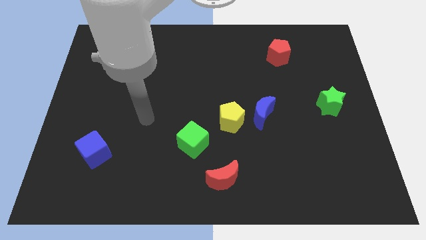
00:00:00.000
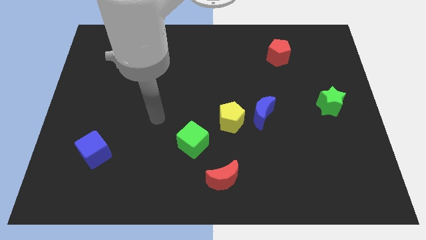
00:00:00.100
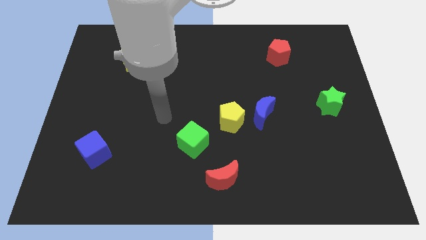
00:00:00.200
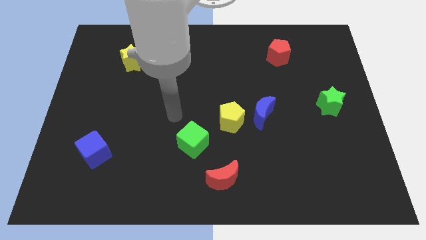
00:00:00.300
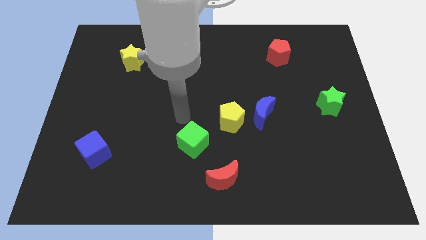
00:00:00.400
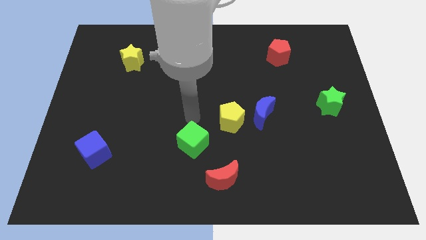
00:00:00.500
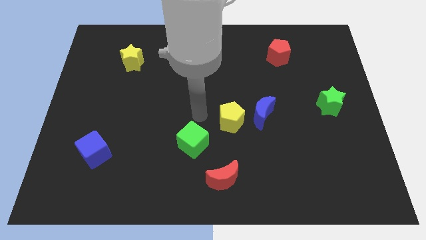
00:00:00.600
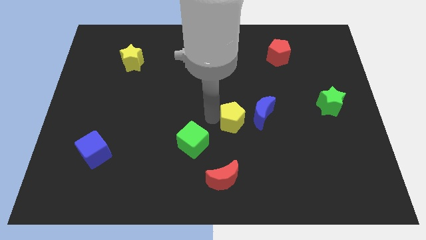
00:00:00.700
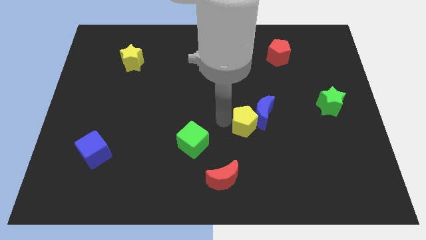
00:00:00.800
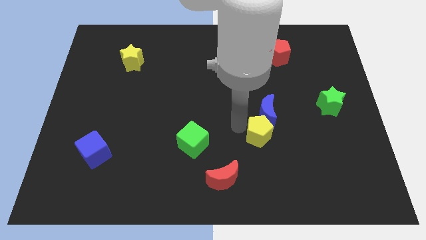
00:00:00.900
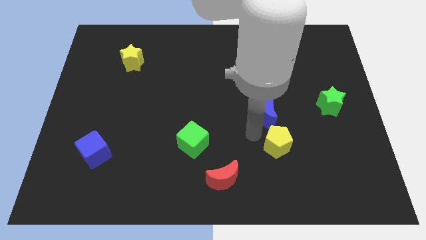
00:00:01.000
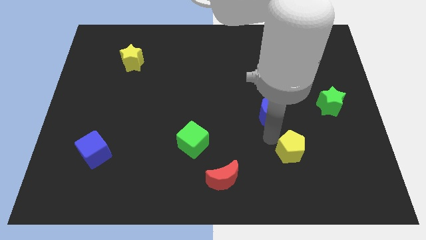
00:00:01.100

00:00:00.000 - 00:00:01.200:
move the blue moon away from the yellow pentagon

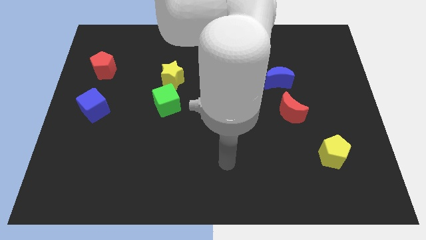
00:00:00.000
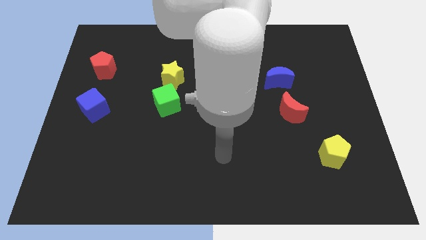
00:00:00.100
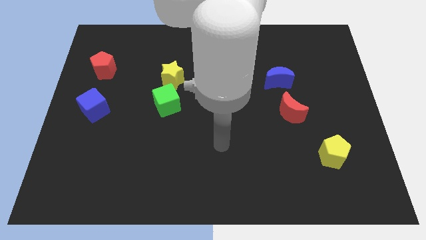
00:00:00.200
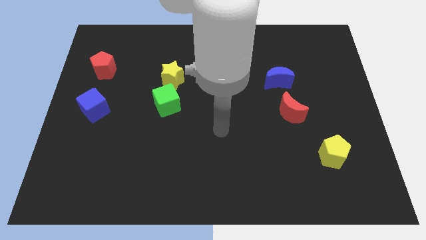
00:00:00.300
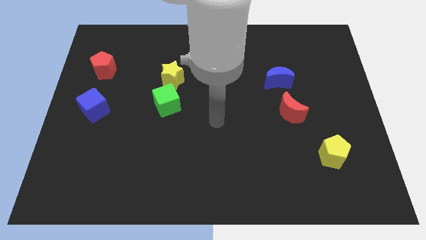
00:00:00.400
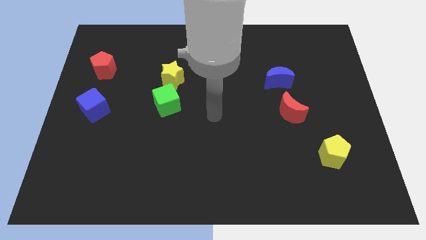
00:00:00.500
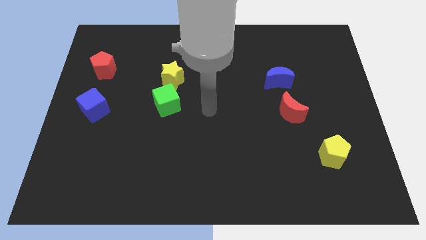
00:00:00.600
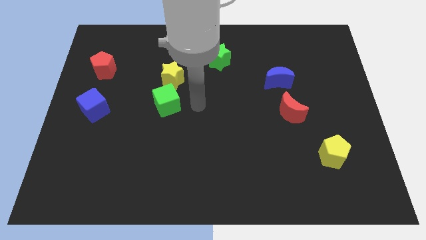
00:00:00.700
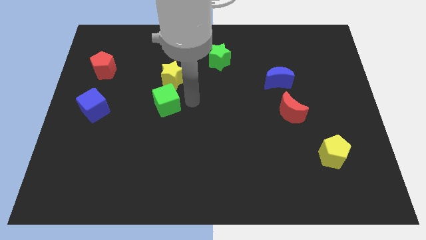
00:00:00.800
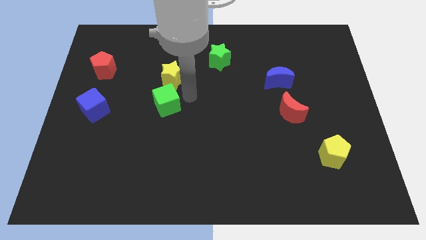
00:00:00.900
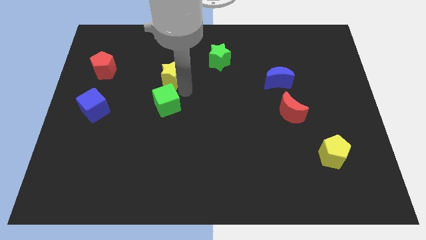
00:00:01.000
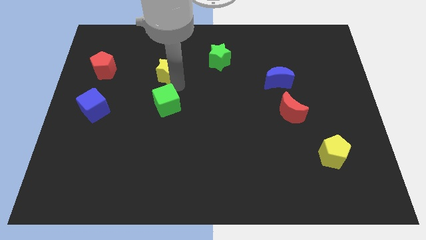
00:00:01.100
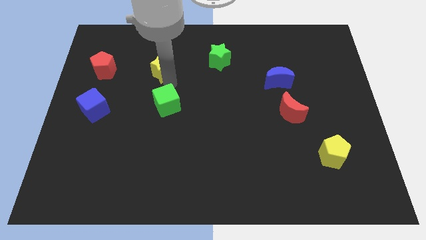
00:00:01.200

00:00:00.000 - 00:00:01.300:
pull the green cube apart from the yellow star

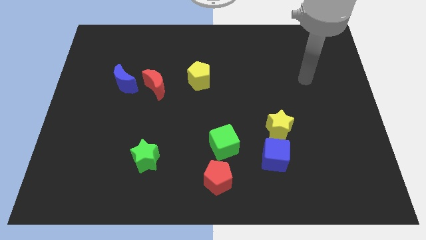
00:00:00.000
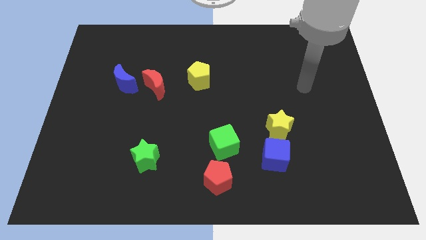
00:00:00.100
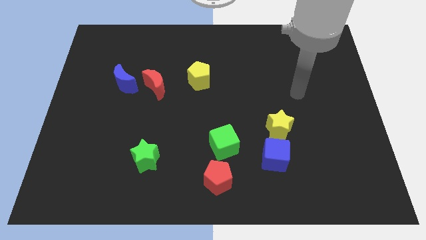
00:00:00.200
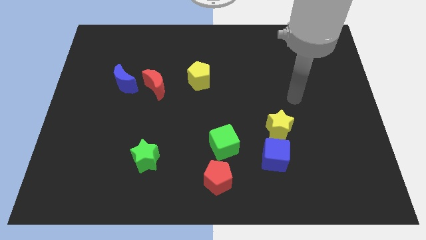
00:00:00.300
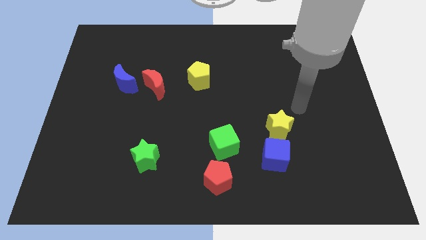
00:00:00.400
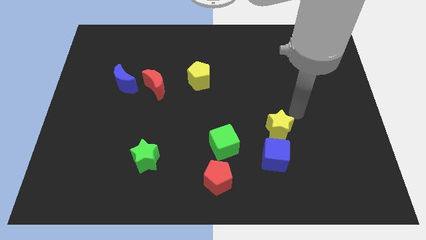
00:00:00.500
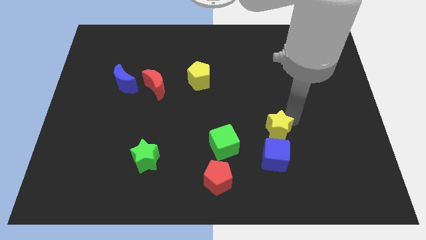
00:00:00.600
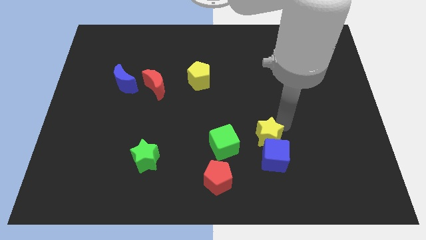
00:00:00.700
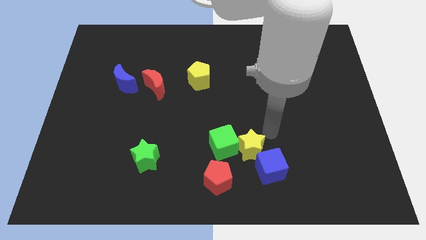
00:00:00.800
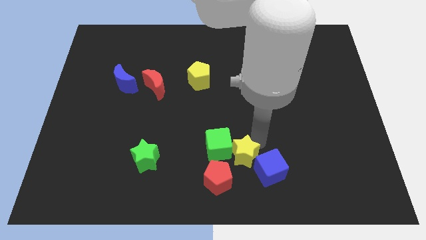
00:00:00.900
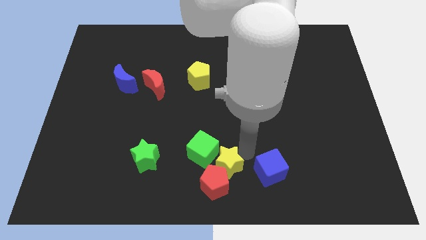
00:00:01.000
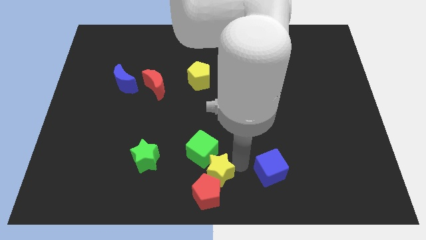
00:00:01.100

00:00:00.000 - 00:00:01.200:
move the blue cube away from the yellow star

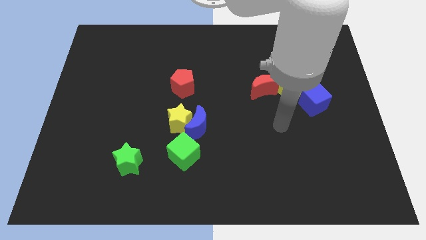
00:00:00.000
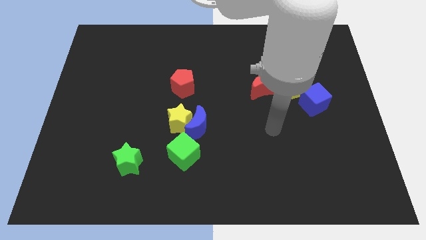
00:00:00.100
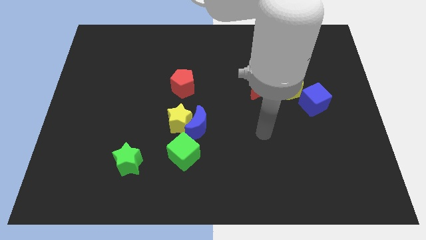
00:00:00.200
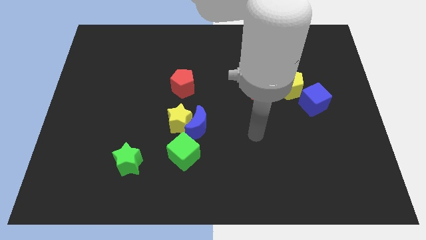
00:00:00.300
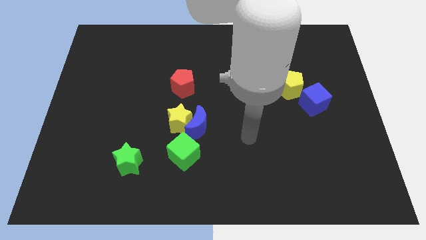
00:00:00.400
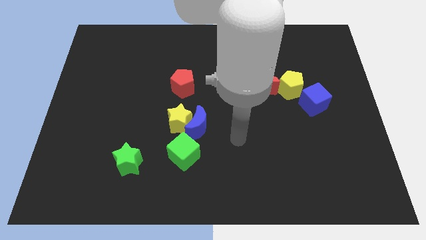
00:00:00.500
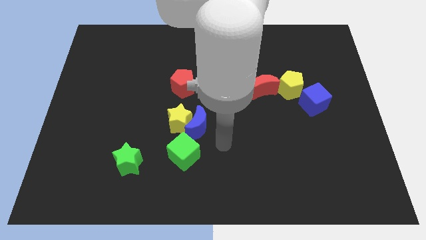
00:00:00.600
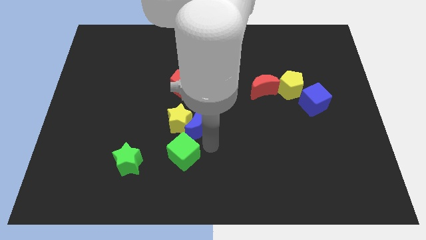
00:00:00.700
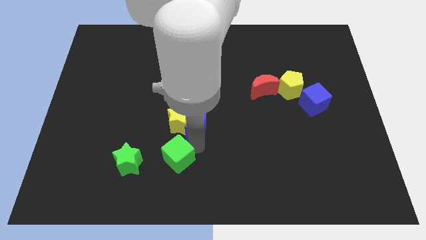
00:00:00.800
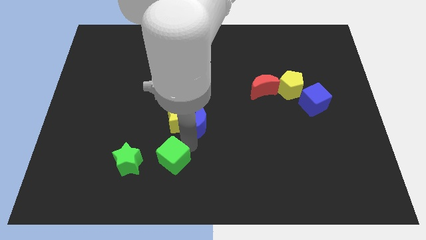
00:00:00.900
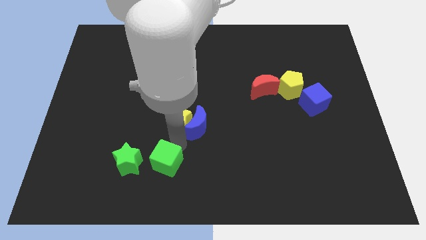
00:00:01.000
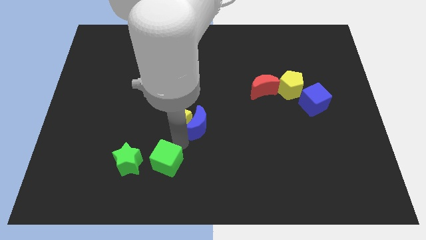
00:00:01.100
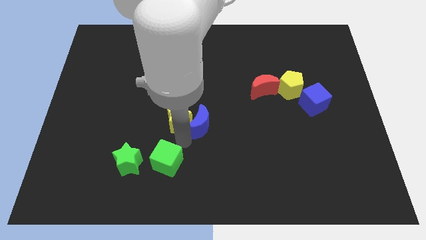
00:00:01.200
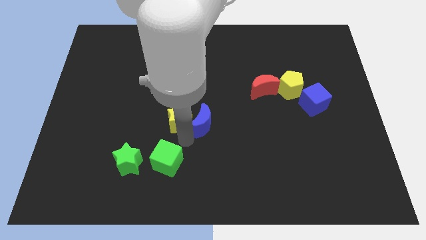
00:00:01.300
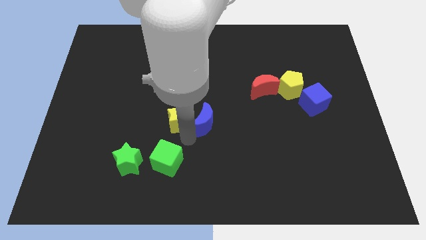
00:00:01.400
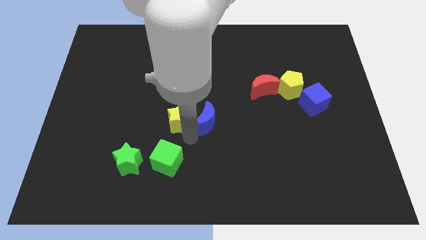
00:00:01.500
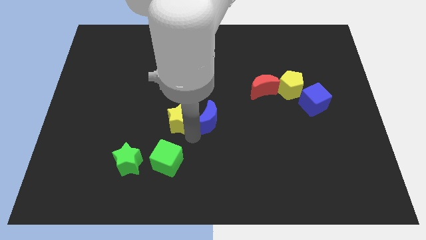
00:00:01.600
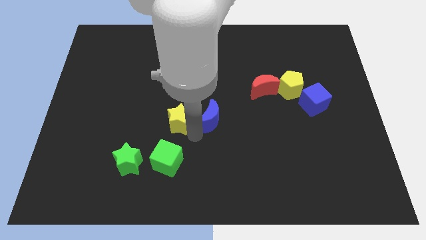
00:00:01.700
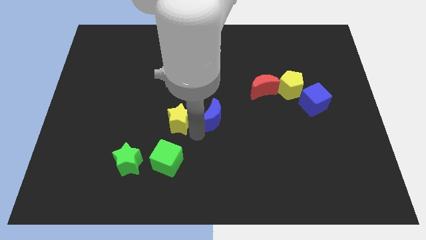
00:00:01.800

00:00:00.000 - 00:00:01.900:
separate the blue moon from the yellow star and green cube

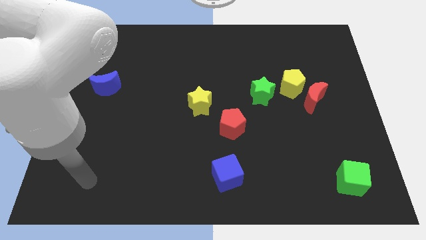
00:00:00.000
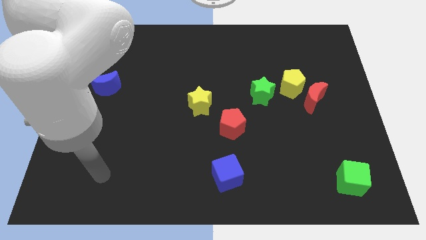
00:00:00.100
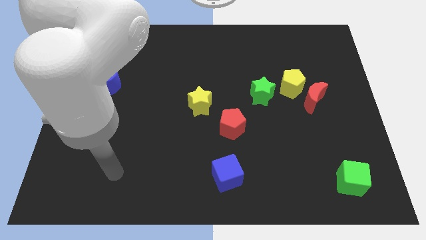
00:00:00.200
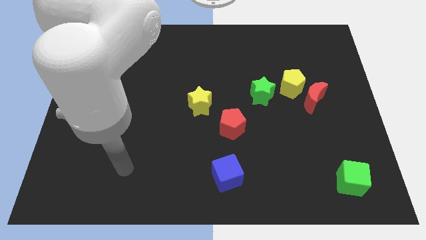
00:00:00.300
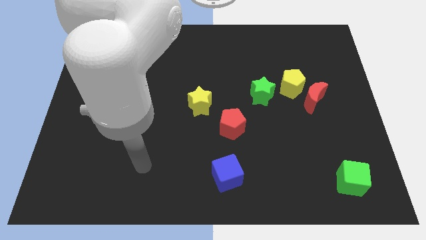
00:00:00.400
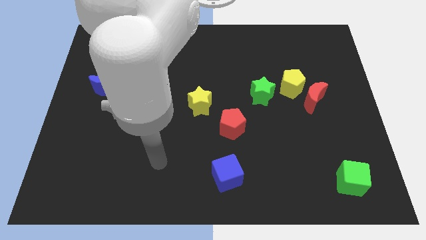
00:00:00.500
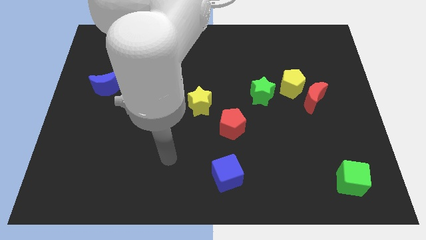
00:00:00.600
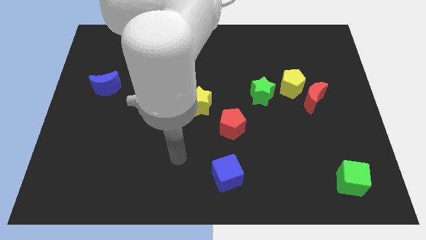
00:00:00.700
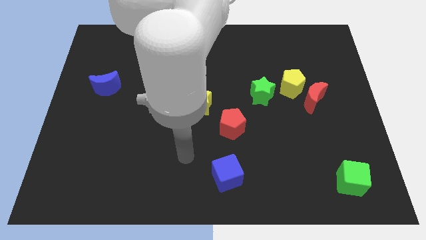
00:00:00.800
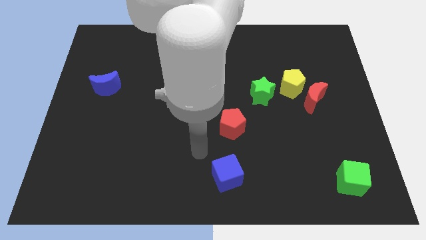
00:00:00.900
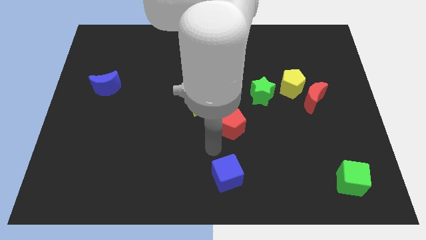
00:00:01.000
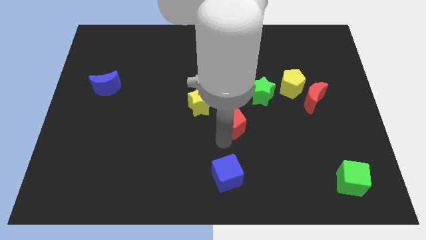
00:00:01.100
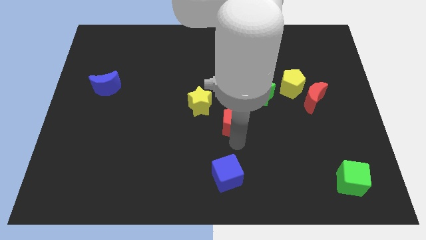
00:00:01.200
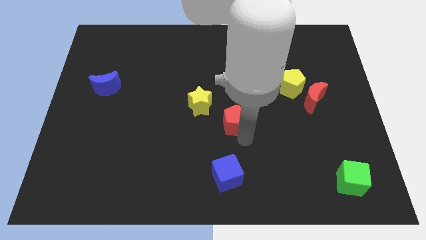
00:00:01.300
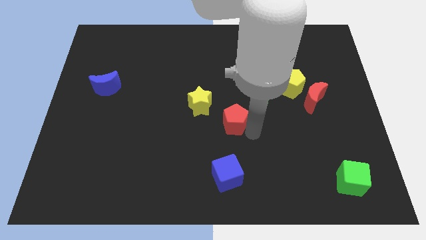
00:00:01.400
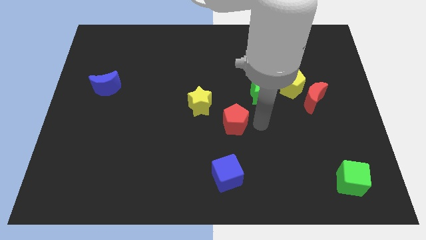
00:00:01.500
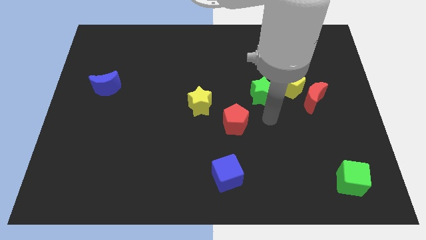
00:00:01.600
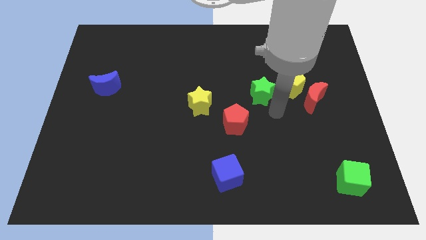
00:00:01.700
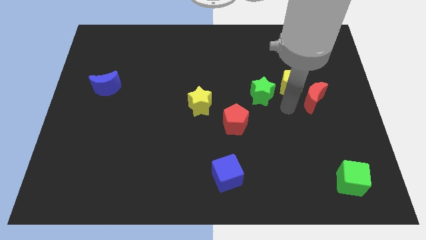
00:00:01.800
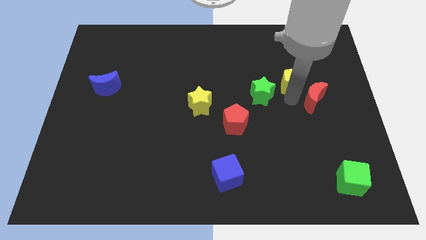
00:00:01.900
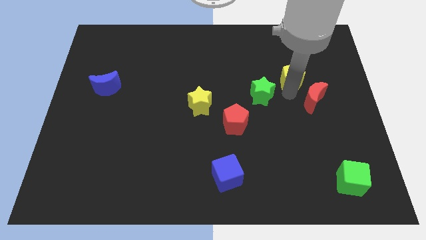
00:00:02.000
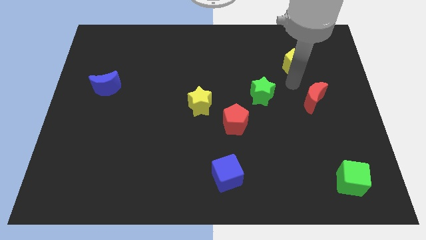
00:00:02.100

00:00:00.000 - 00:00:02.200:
pull the red moon apart from the yellow pentagon

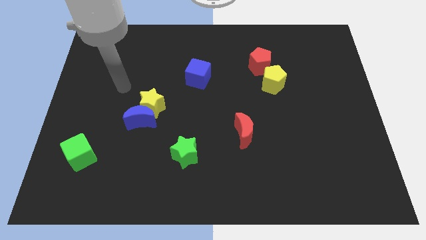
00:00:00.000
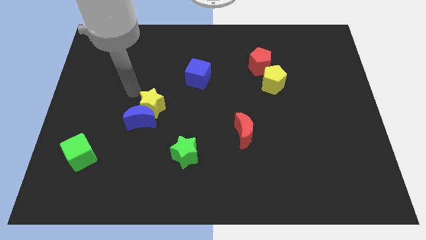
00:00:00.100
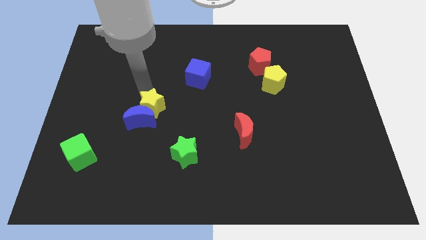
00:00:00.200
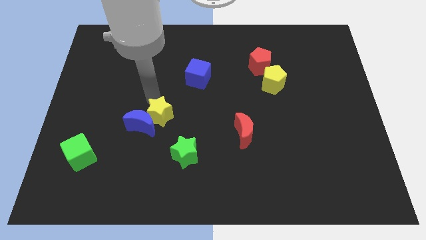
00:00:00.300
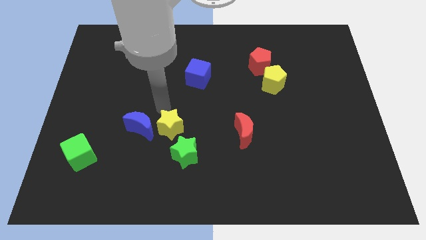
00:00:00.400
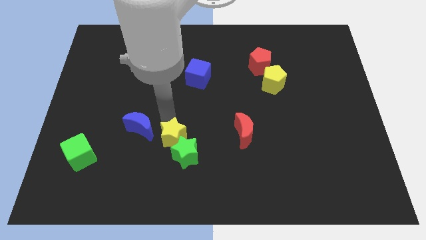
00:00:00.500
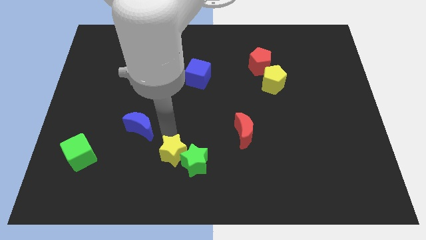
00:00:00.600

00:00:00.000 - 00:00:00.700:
pull the blue moon apart from the yellow star

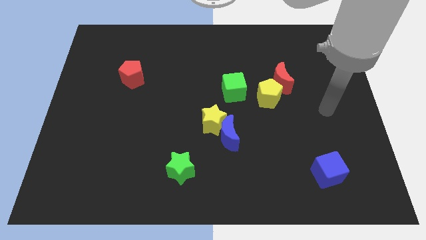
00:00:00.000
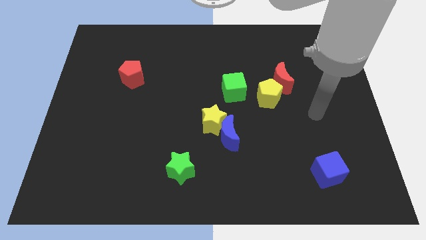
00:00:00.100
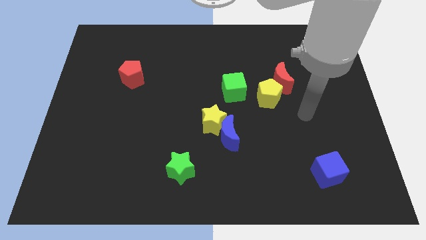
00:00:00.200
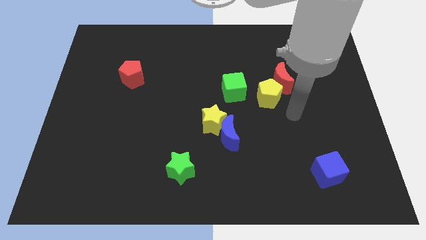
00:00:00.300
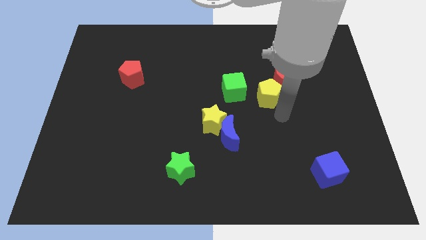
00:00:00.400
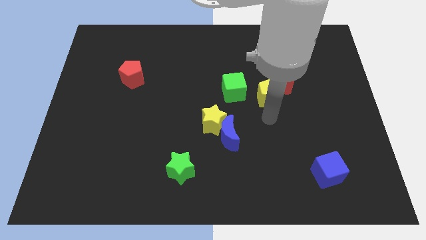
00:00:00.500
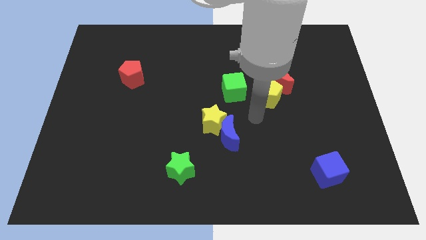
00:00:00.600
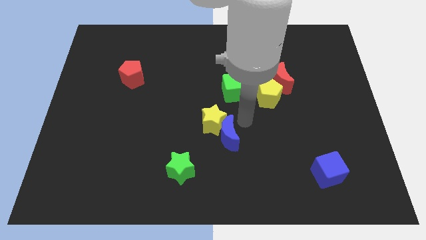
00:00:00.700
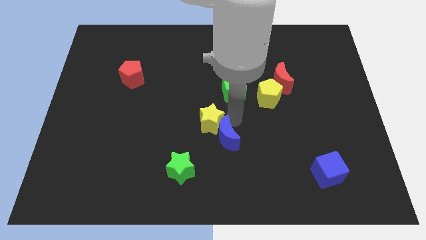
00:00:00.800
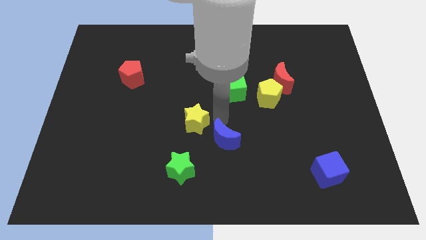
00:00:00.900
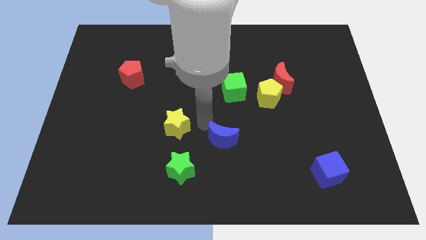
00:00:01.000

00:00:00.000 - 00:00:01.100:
move the blue moon away from the yellow star
